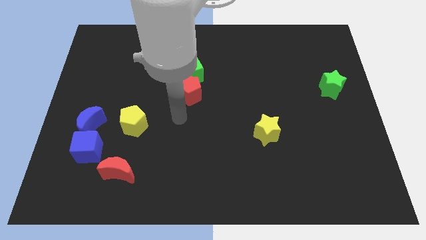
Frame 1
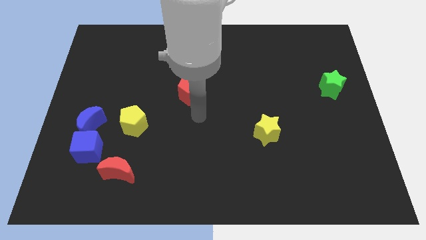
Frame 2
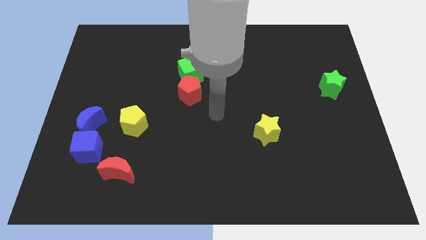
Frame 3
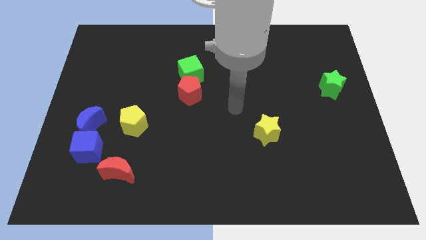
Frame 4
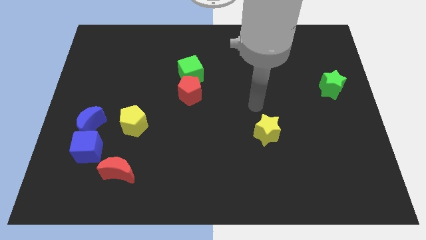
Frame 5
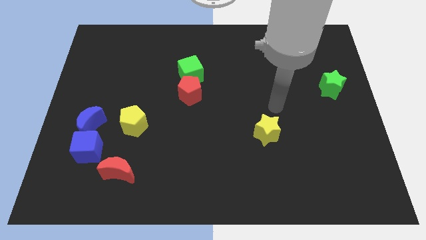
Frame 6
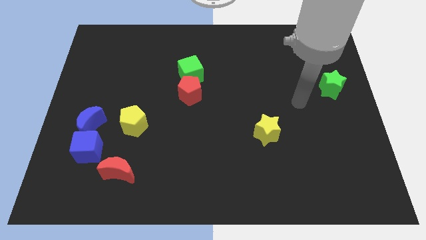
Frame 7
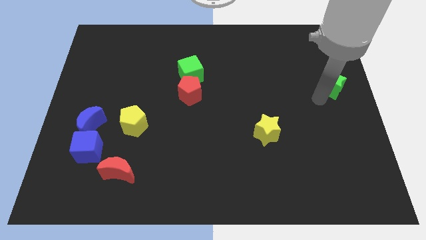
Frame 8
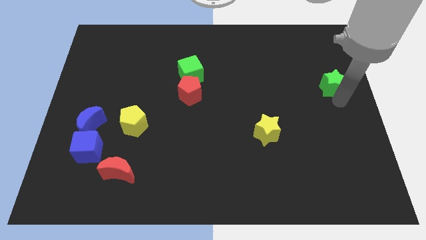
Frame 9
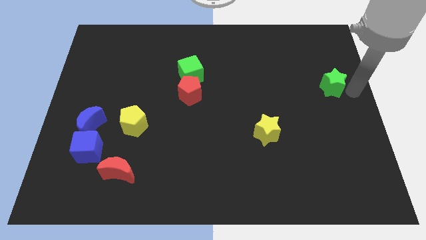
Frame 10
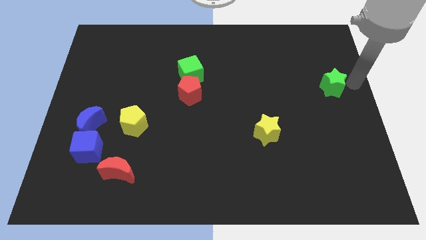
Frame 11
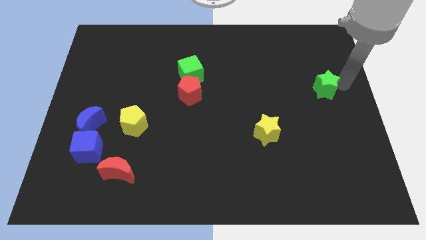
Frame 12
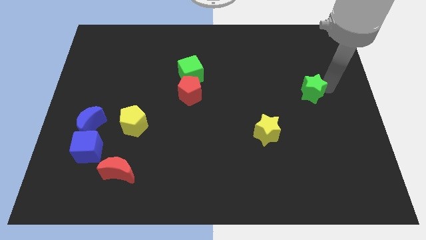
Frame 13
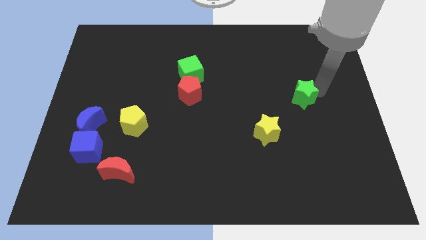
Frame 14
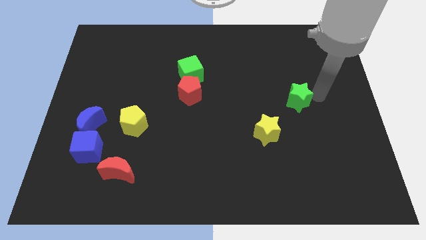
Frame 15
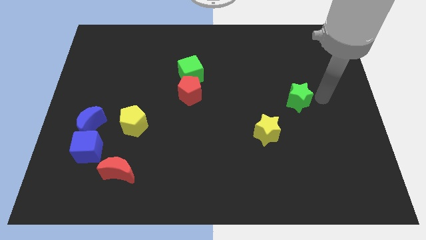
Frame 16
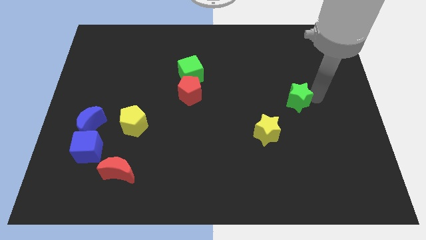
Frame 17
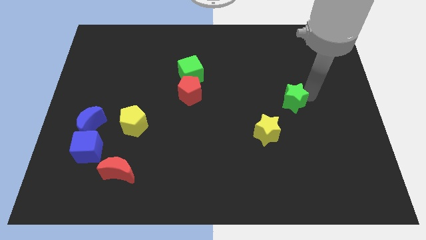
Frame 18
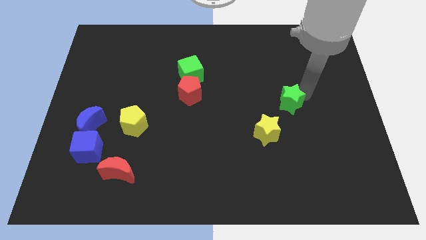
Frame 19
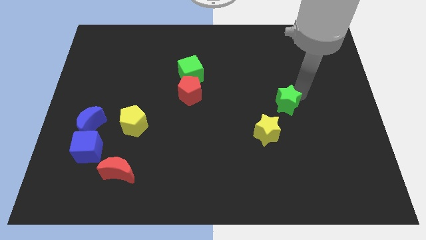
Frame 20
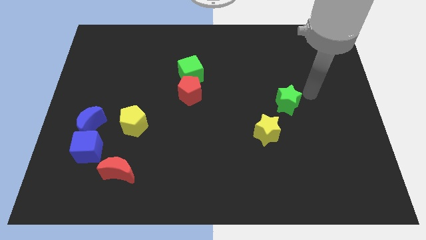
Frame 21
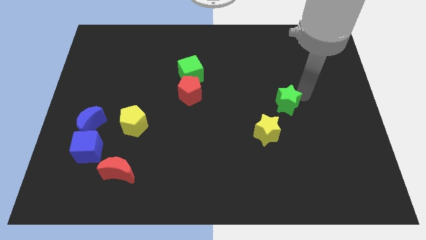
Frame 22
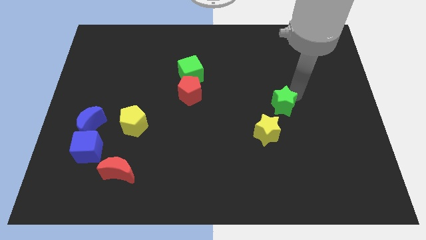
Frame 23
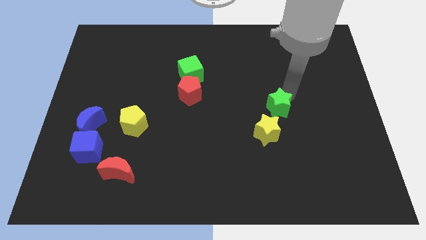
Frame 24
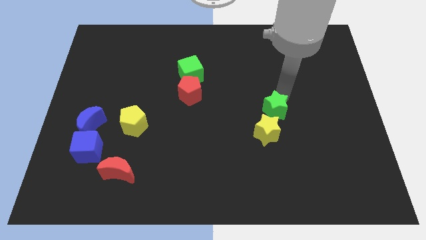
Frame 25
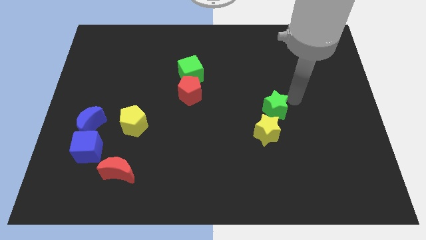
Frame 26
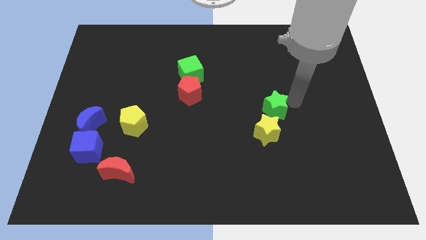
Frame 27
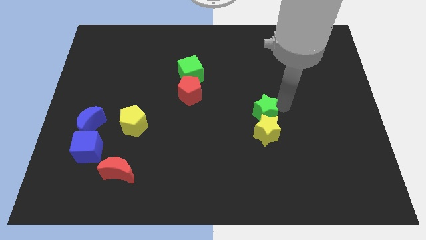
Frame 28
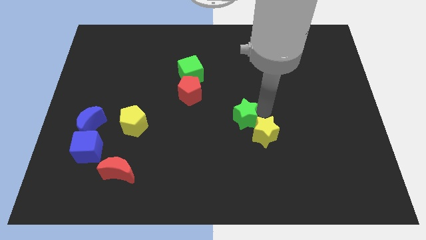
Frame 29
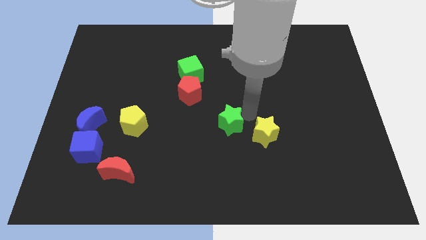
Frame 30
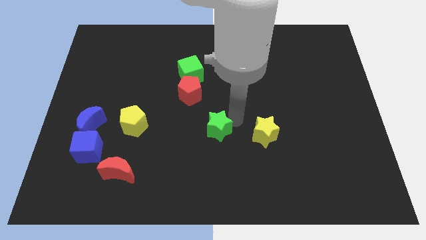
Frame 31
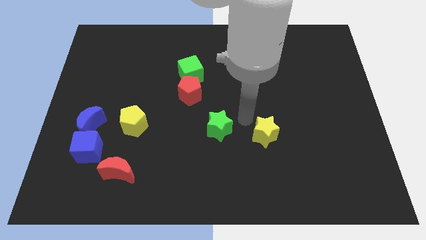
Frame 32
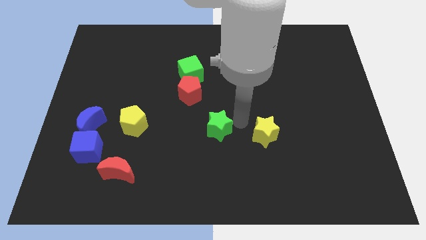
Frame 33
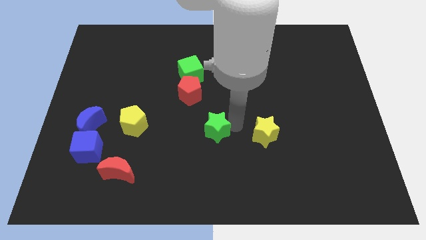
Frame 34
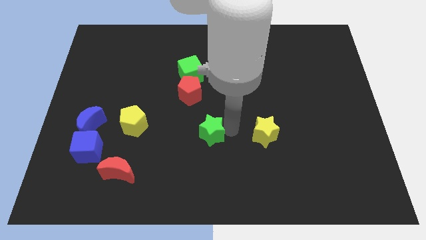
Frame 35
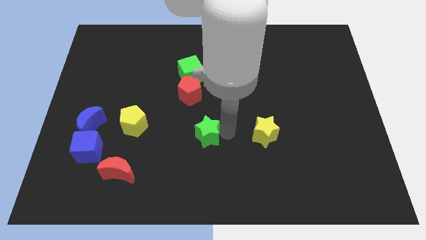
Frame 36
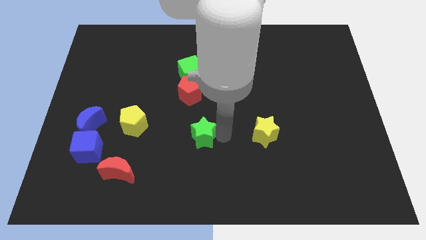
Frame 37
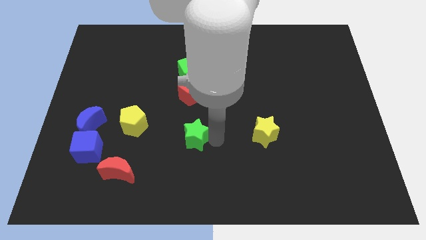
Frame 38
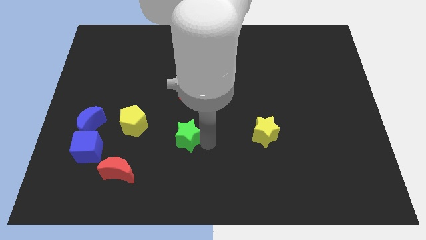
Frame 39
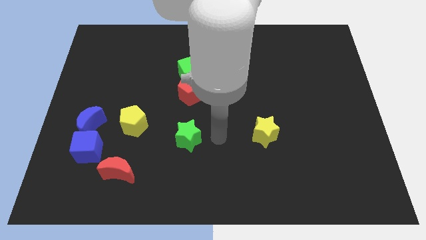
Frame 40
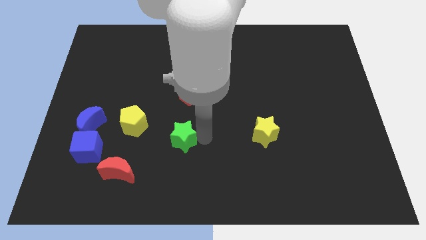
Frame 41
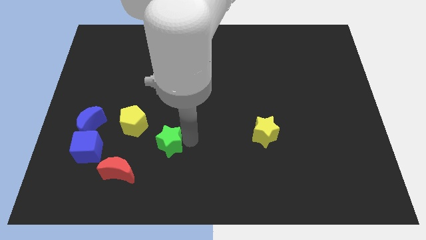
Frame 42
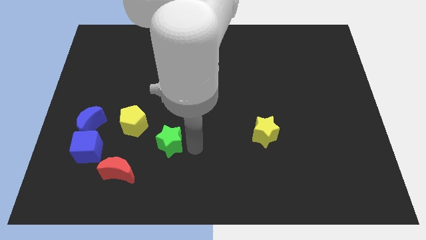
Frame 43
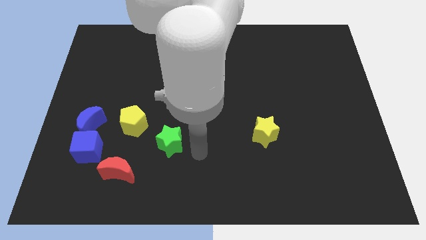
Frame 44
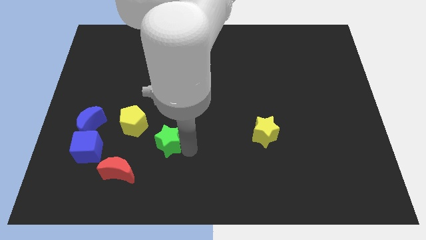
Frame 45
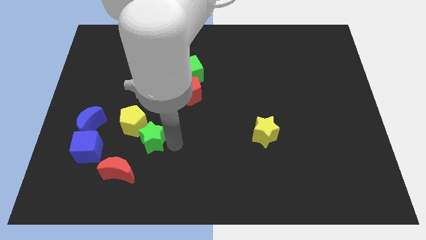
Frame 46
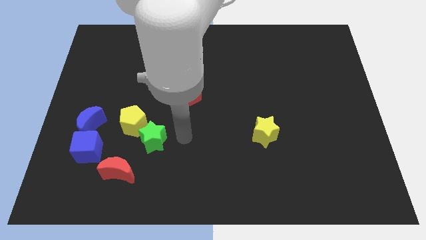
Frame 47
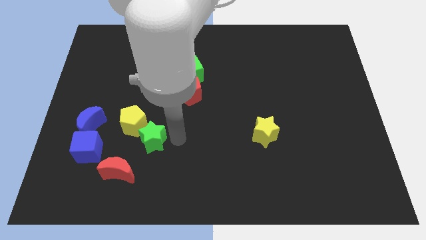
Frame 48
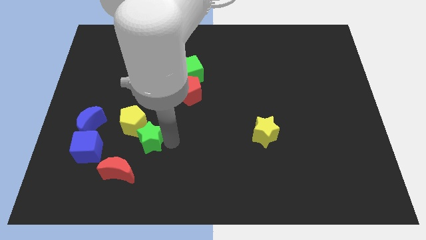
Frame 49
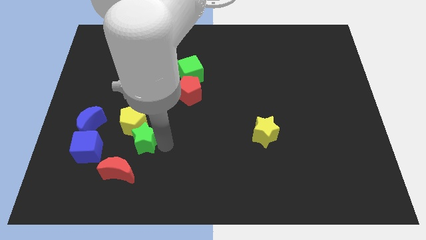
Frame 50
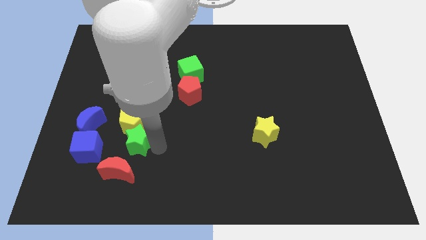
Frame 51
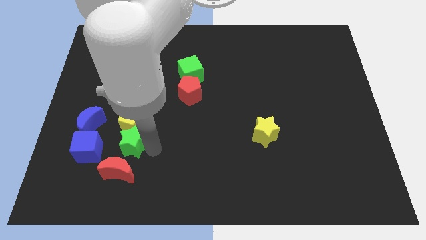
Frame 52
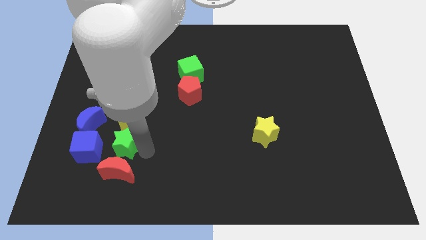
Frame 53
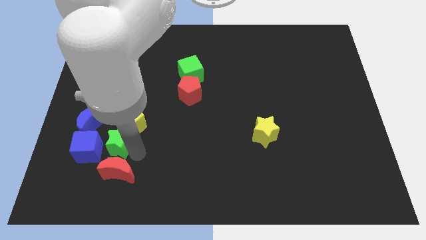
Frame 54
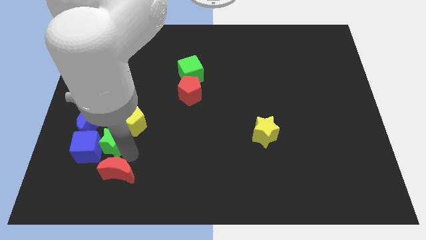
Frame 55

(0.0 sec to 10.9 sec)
slide the green star towards the blue cube

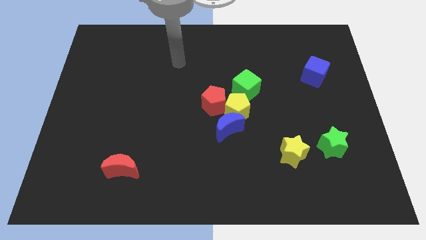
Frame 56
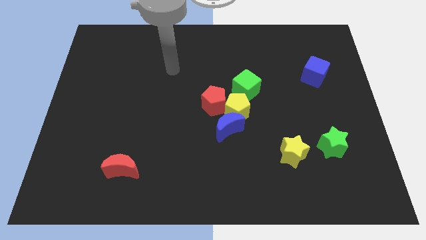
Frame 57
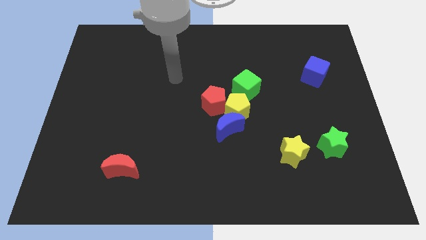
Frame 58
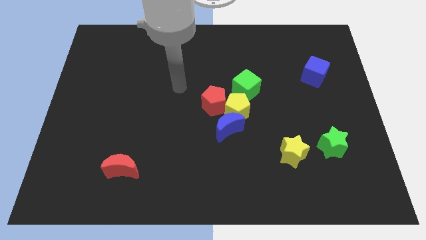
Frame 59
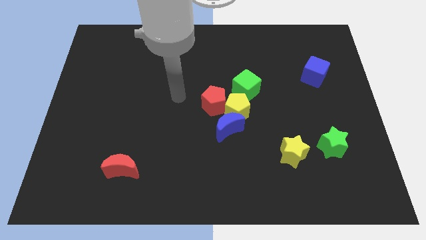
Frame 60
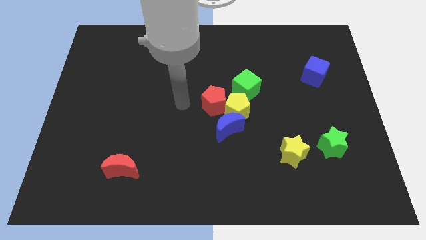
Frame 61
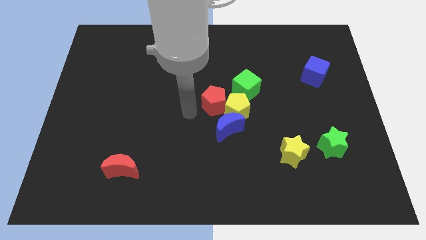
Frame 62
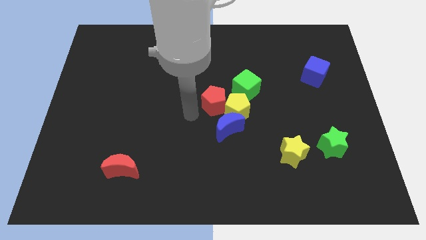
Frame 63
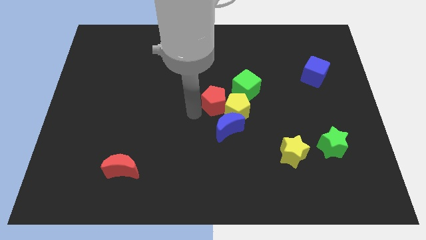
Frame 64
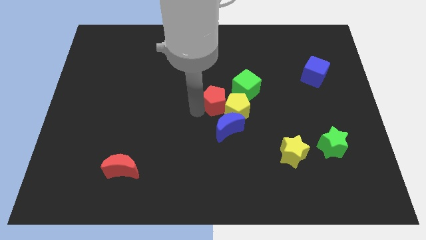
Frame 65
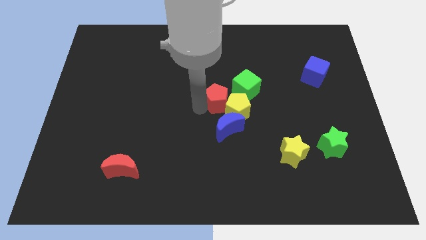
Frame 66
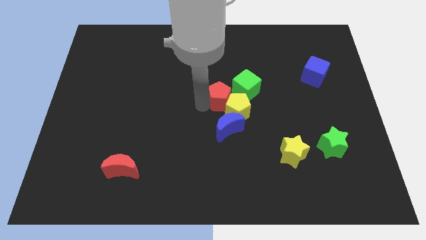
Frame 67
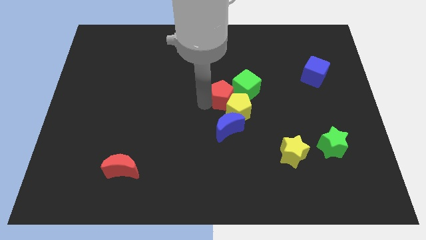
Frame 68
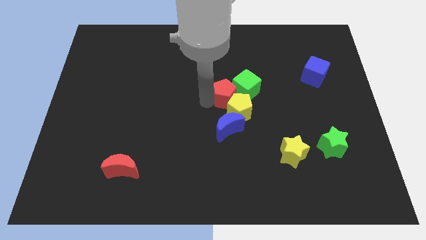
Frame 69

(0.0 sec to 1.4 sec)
slide the red pentagon next to the green cube

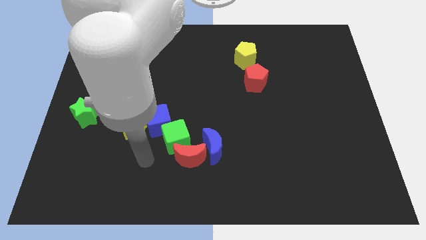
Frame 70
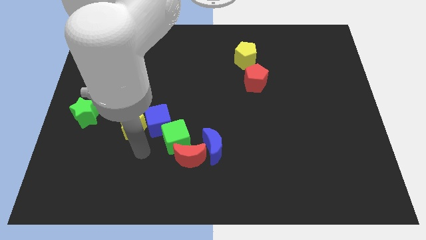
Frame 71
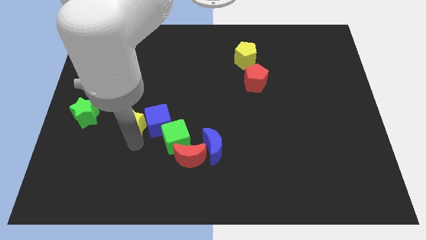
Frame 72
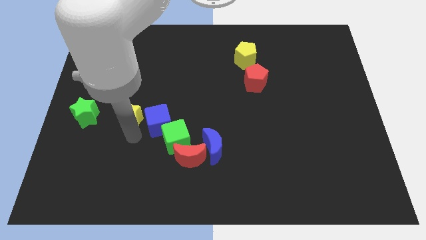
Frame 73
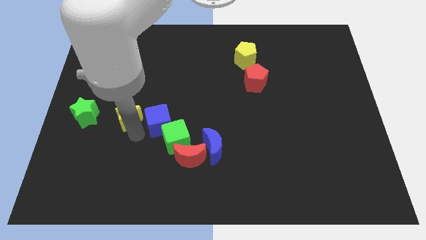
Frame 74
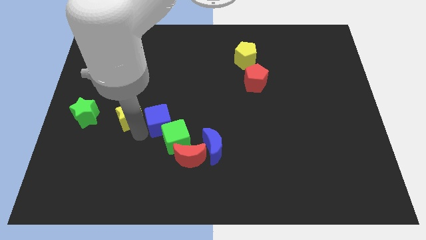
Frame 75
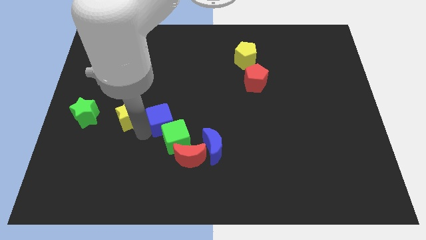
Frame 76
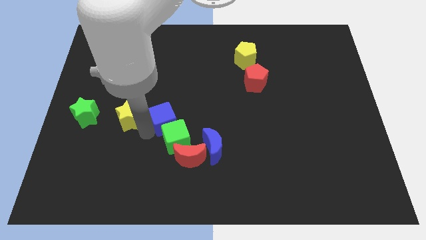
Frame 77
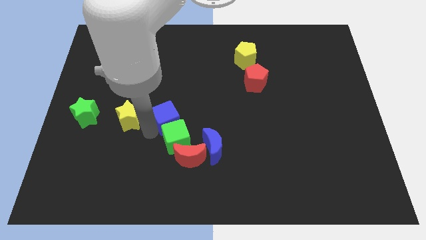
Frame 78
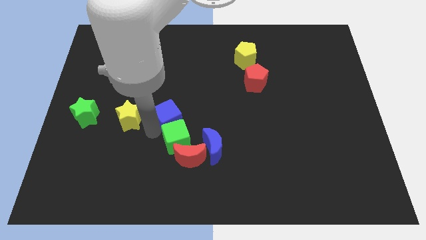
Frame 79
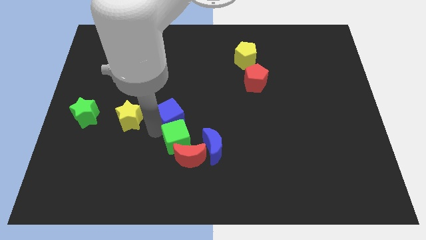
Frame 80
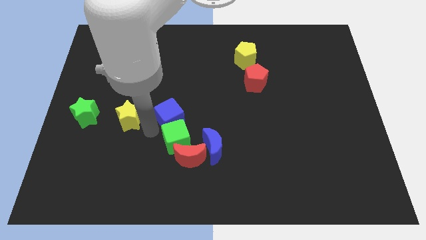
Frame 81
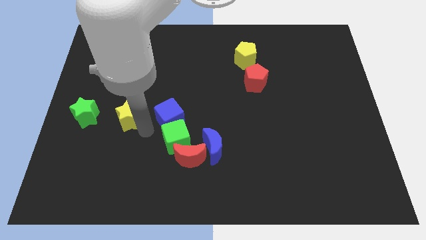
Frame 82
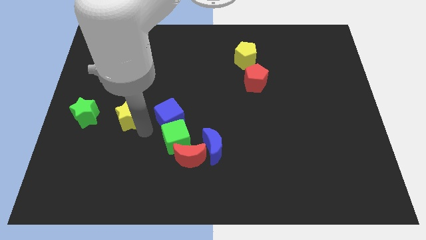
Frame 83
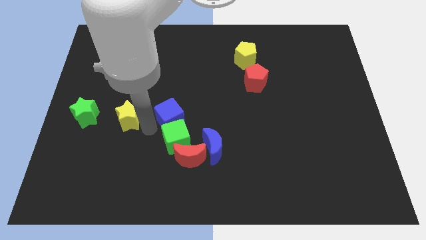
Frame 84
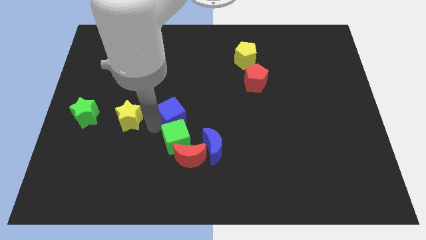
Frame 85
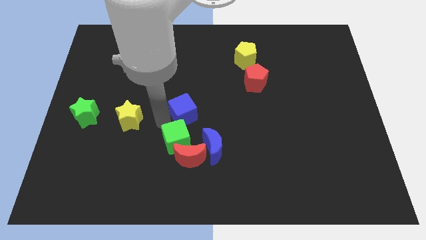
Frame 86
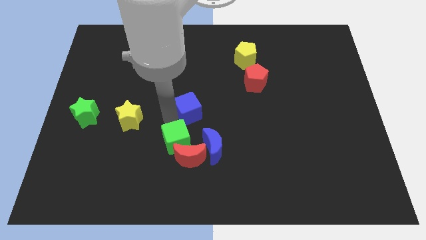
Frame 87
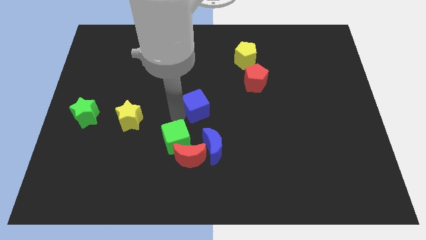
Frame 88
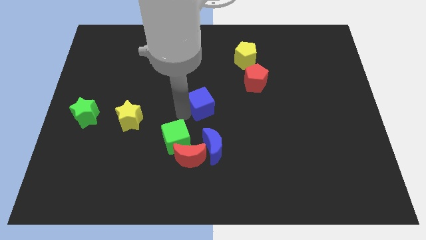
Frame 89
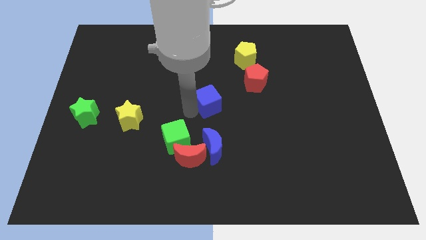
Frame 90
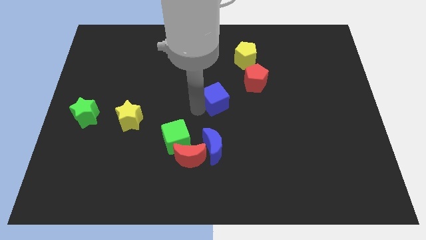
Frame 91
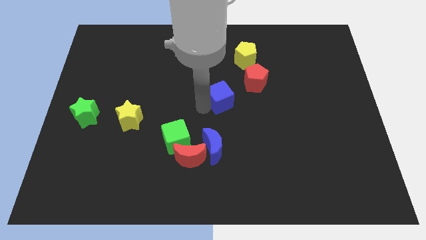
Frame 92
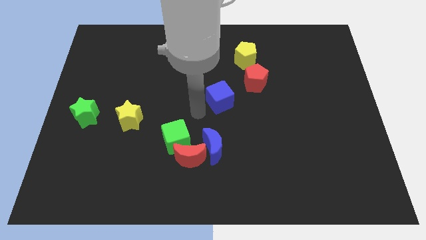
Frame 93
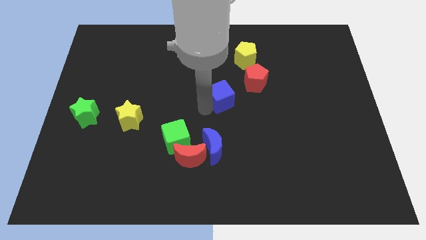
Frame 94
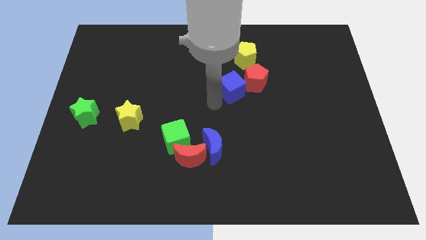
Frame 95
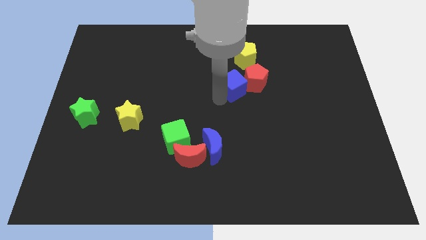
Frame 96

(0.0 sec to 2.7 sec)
move the blue cube towards the red pentagon
